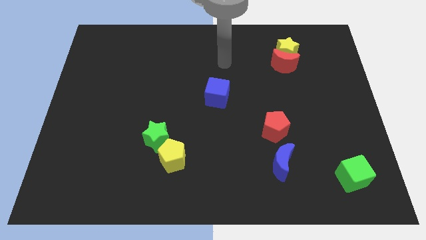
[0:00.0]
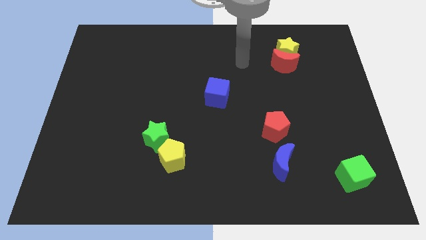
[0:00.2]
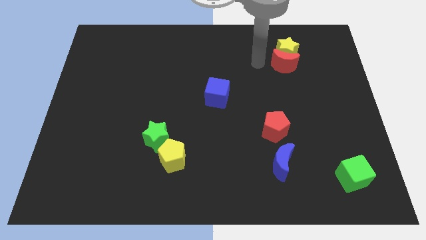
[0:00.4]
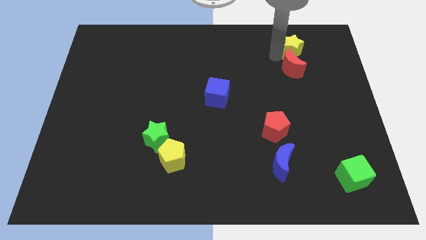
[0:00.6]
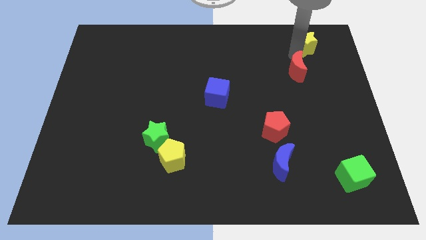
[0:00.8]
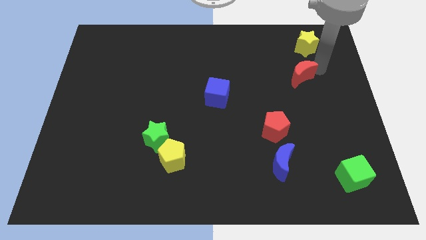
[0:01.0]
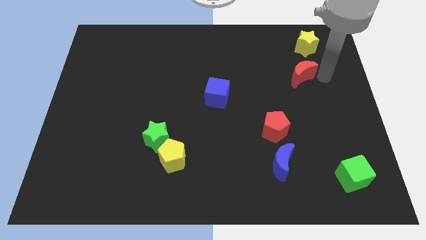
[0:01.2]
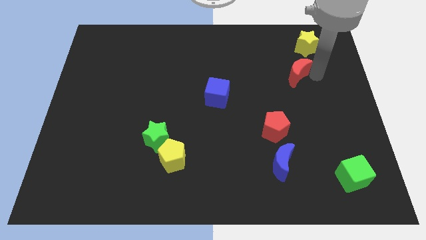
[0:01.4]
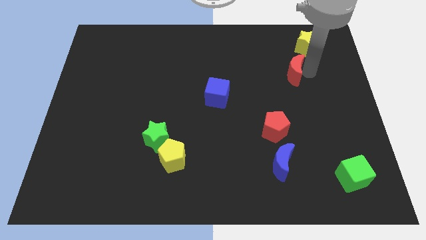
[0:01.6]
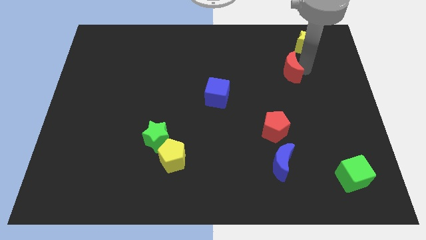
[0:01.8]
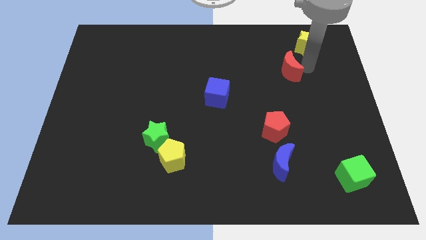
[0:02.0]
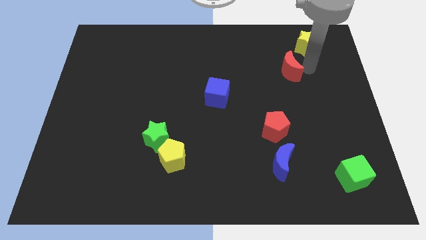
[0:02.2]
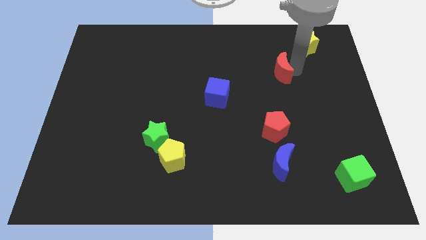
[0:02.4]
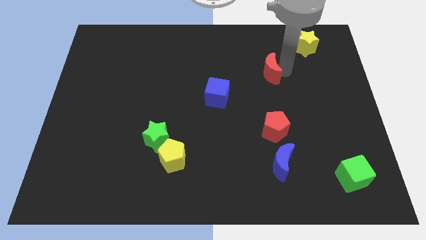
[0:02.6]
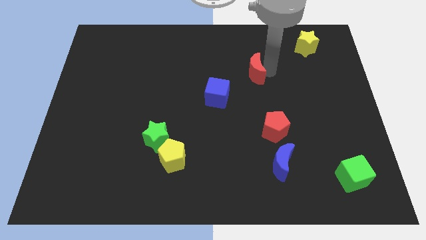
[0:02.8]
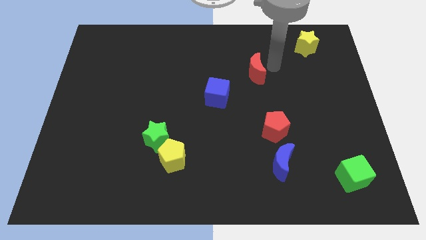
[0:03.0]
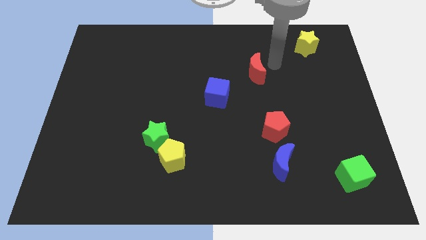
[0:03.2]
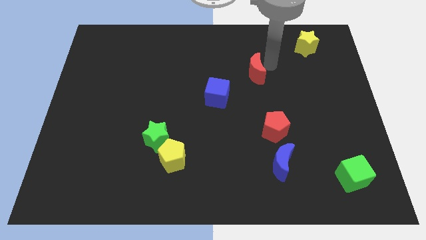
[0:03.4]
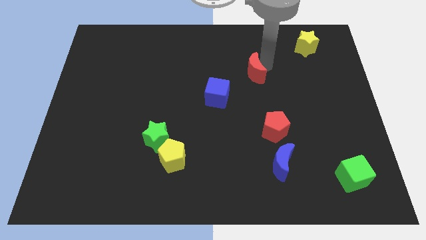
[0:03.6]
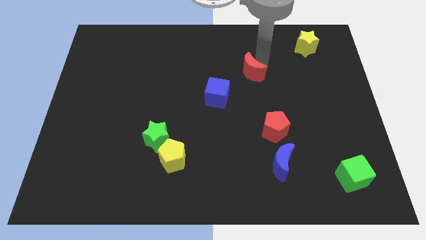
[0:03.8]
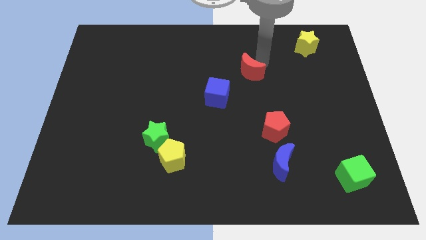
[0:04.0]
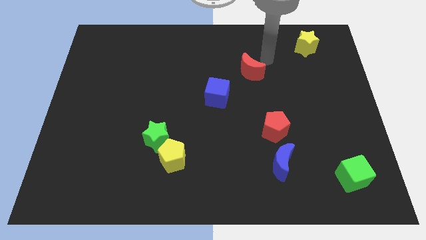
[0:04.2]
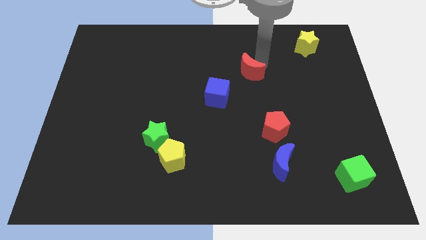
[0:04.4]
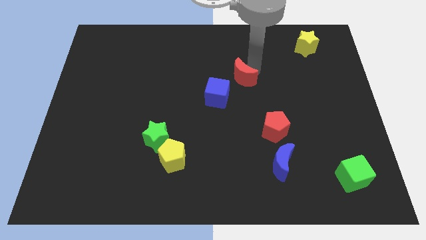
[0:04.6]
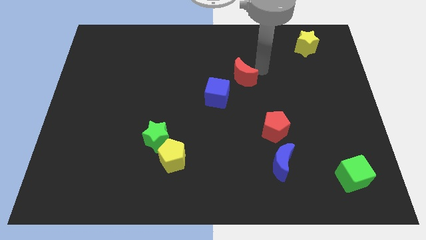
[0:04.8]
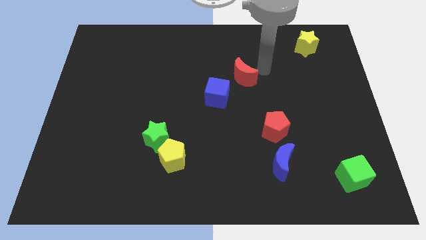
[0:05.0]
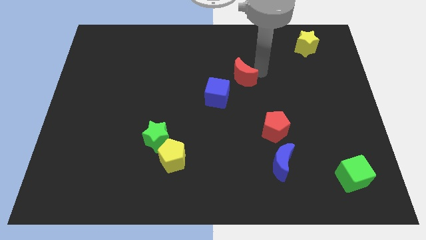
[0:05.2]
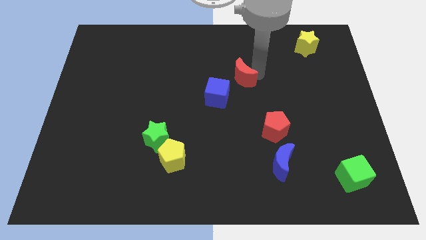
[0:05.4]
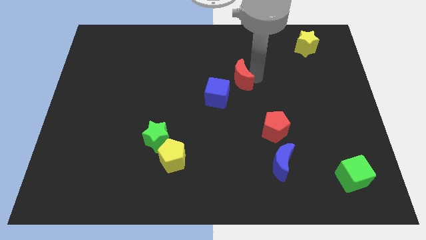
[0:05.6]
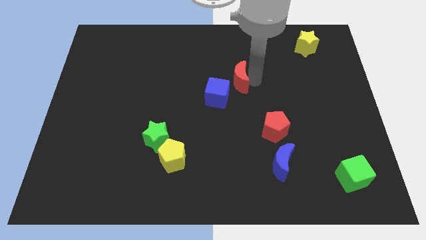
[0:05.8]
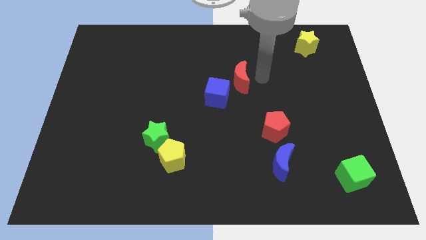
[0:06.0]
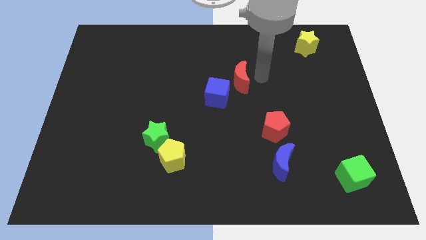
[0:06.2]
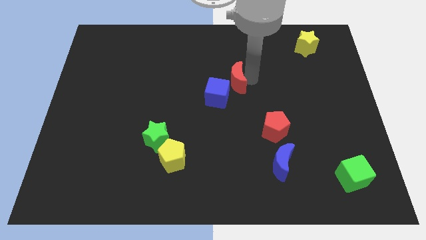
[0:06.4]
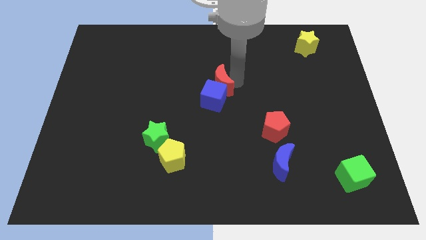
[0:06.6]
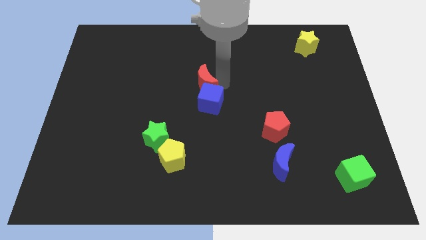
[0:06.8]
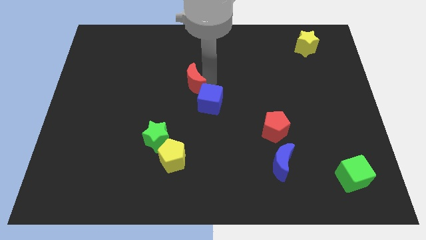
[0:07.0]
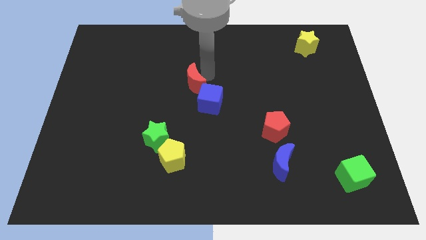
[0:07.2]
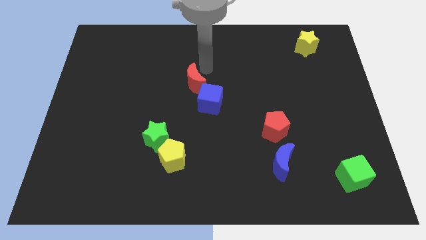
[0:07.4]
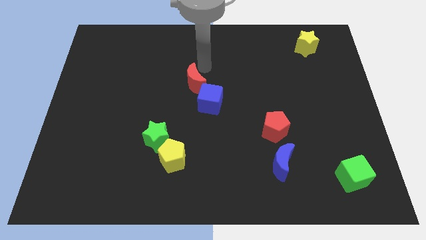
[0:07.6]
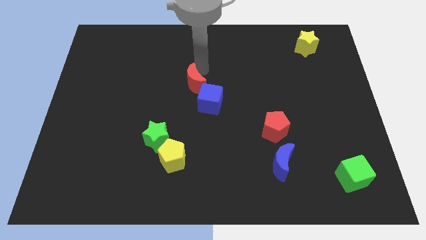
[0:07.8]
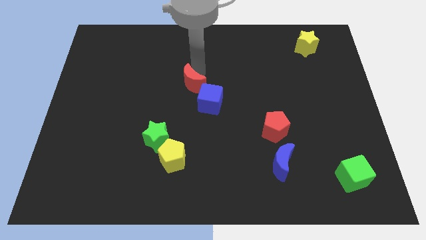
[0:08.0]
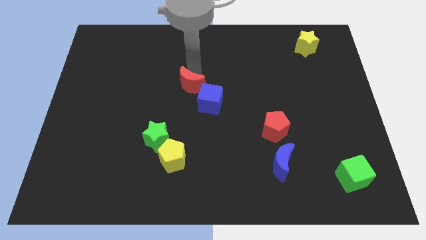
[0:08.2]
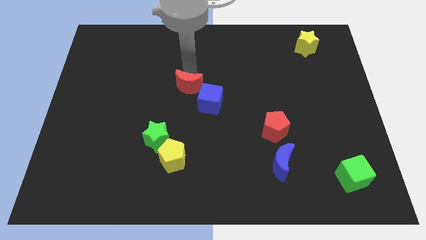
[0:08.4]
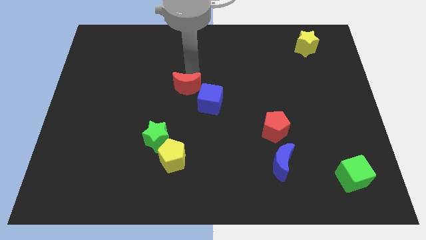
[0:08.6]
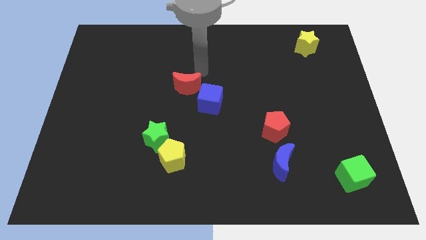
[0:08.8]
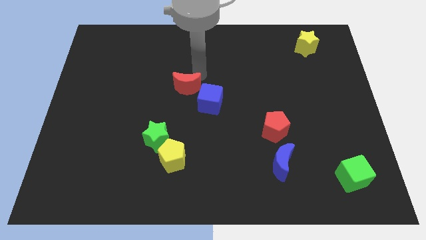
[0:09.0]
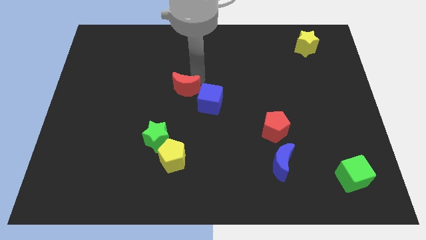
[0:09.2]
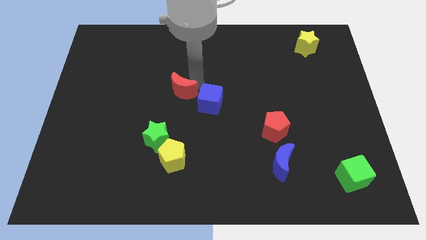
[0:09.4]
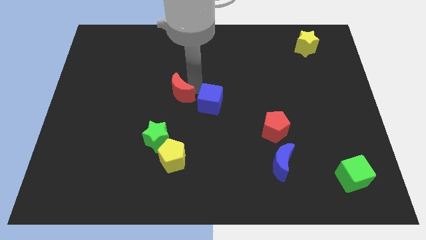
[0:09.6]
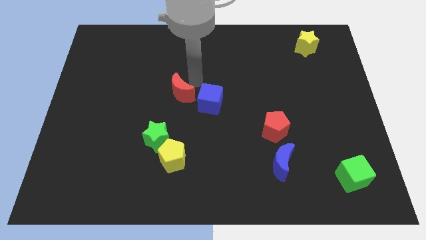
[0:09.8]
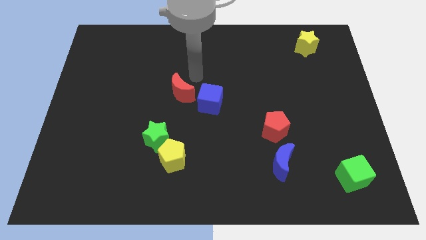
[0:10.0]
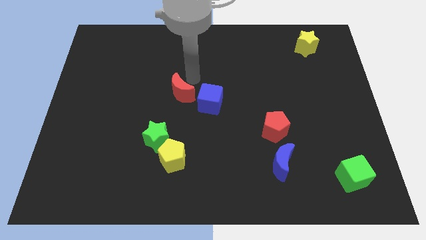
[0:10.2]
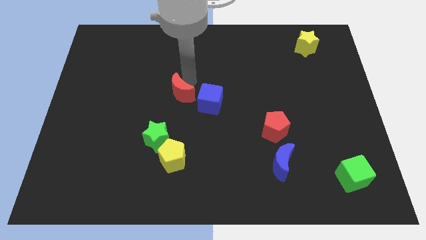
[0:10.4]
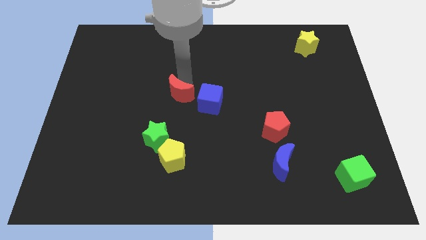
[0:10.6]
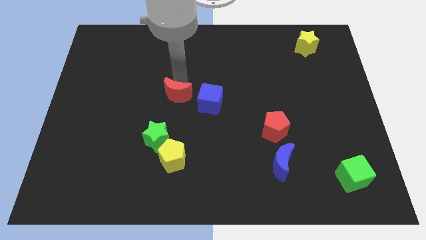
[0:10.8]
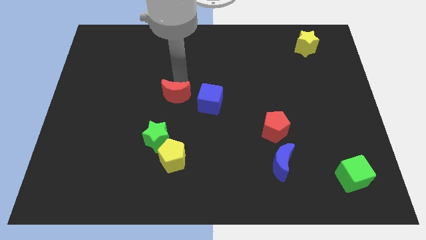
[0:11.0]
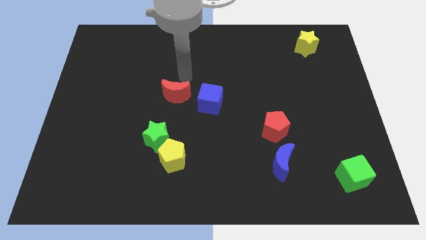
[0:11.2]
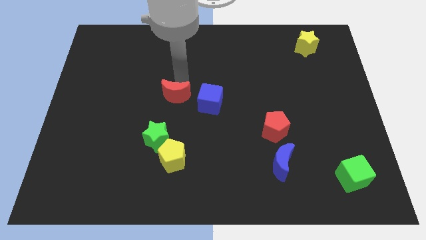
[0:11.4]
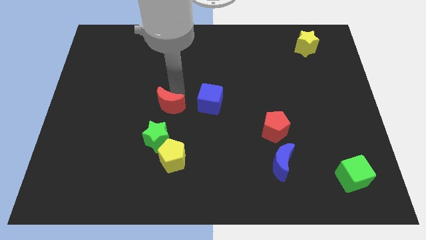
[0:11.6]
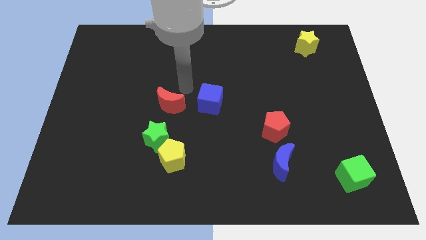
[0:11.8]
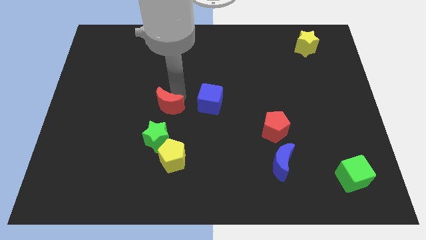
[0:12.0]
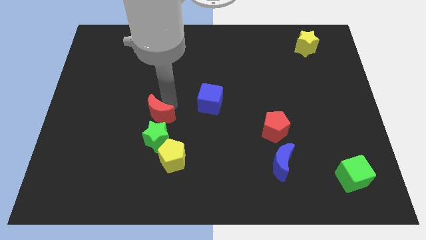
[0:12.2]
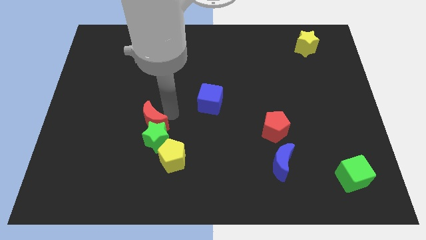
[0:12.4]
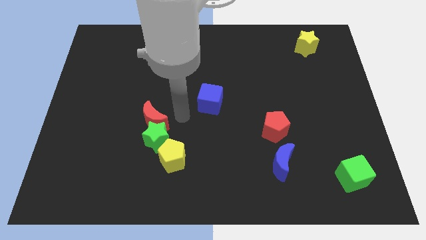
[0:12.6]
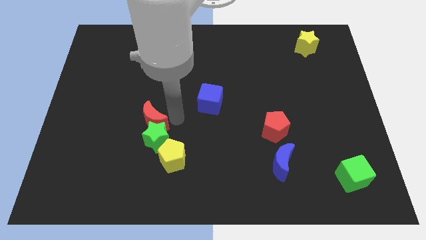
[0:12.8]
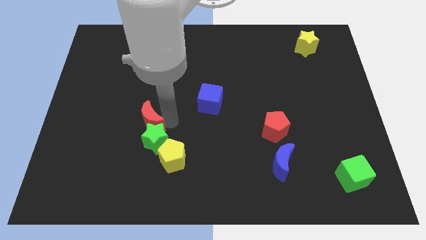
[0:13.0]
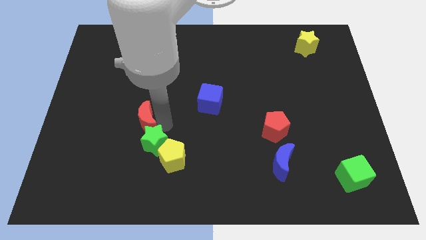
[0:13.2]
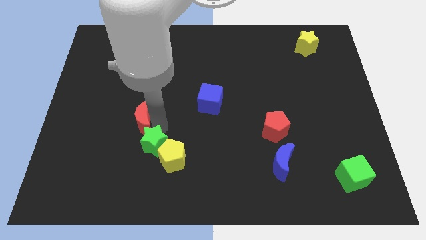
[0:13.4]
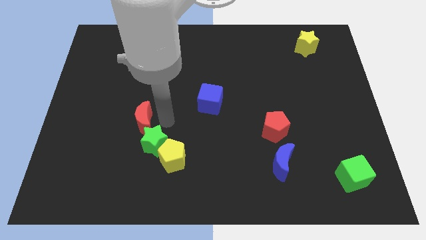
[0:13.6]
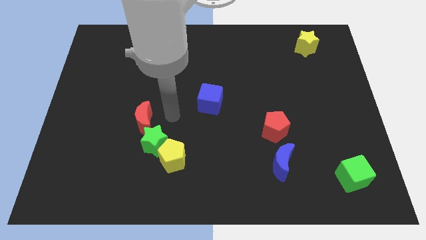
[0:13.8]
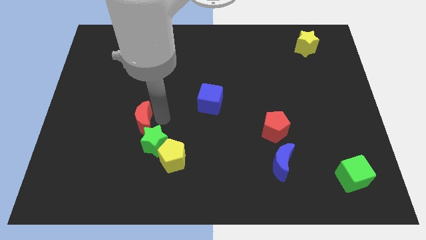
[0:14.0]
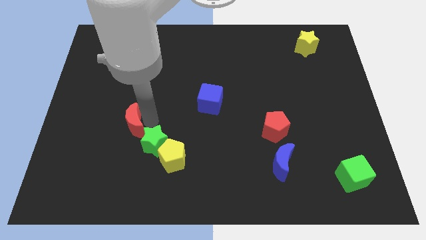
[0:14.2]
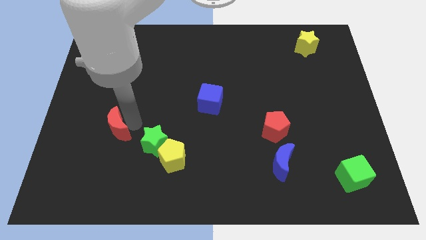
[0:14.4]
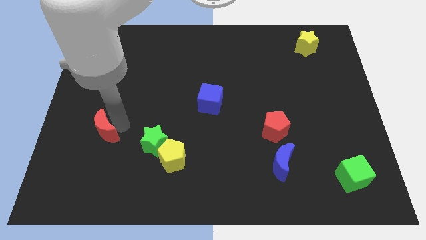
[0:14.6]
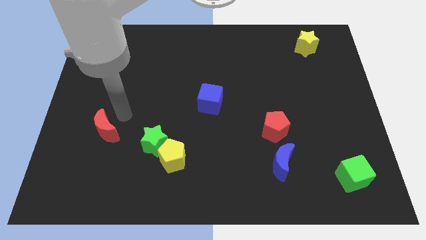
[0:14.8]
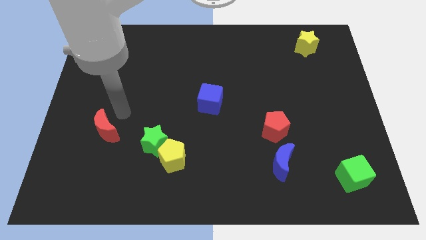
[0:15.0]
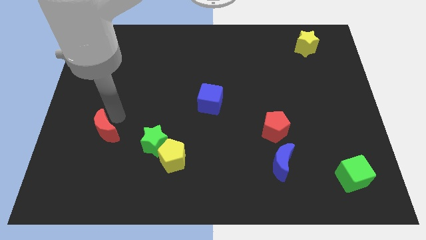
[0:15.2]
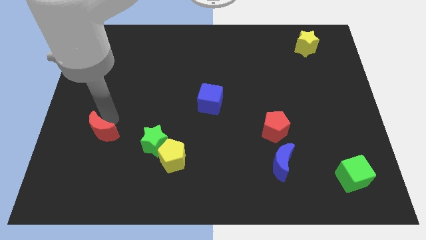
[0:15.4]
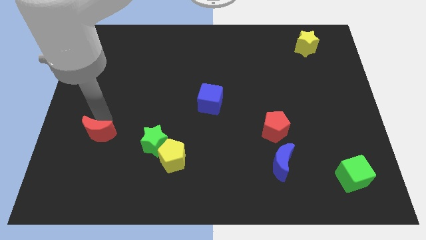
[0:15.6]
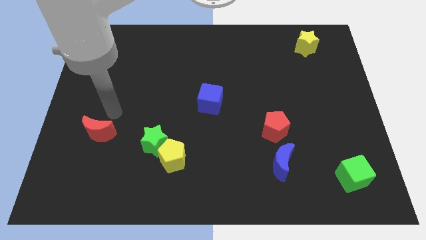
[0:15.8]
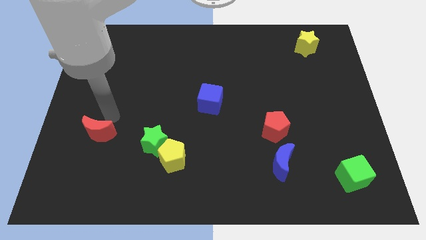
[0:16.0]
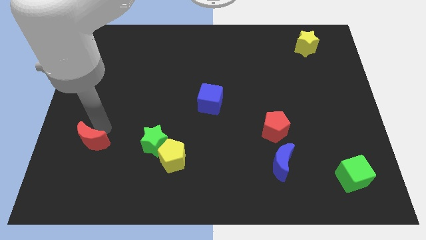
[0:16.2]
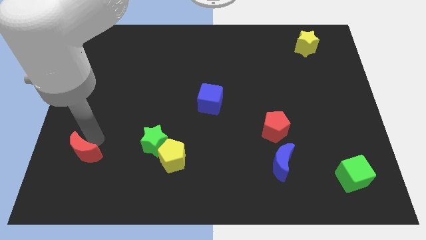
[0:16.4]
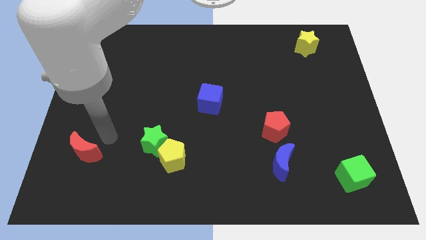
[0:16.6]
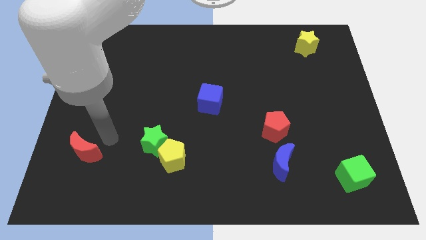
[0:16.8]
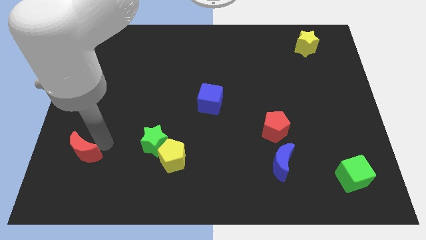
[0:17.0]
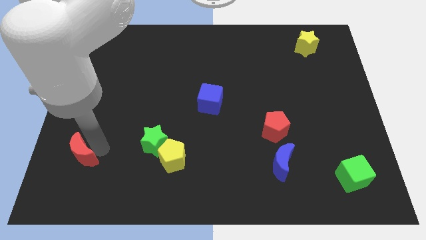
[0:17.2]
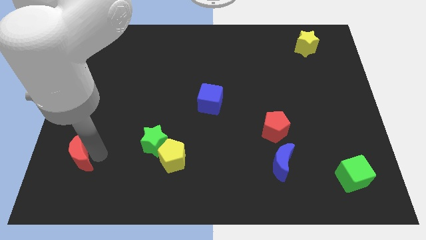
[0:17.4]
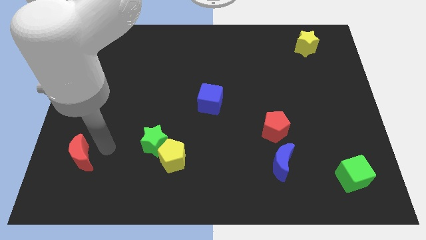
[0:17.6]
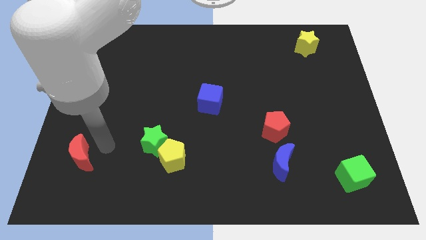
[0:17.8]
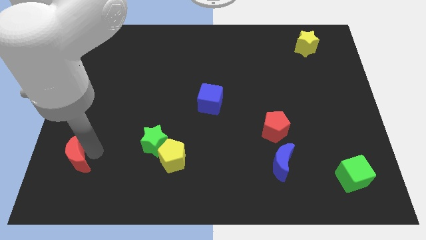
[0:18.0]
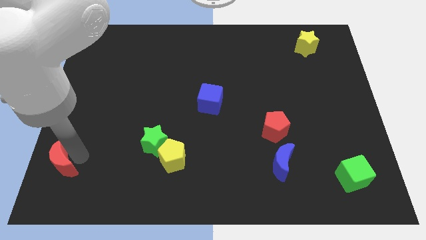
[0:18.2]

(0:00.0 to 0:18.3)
move the red moon to the bottom left
